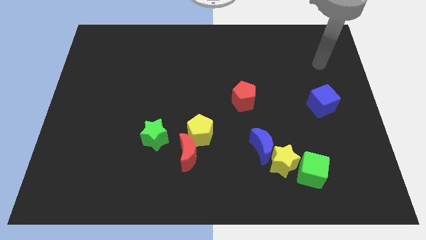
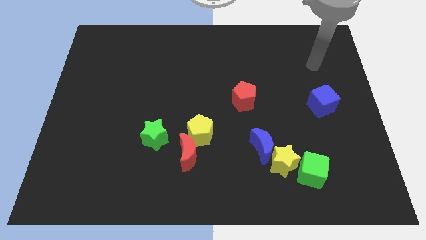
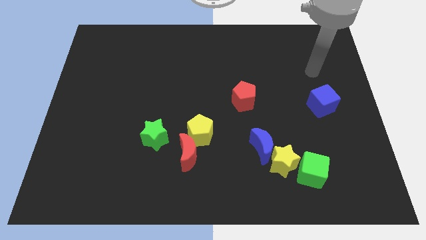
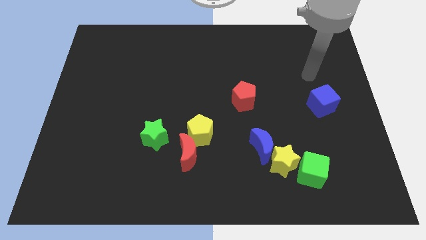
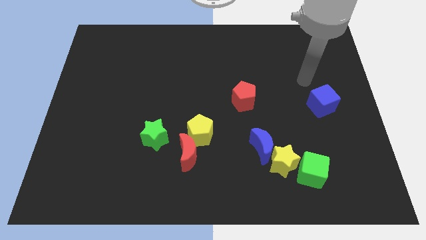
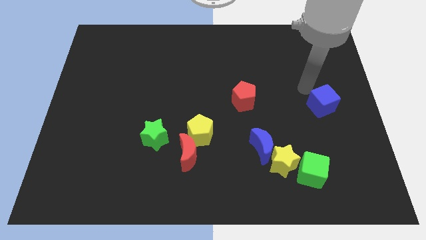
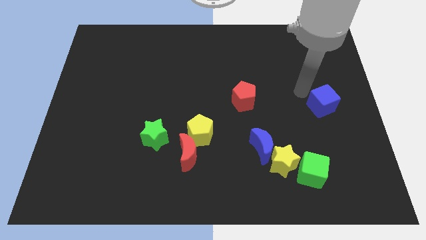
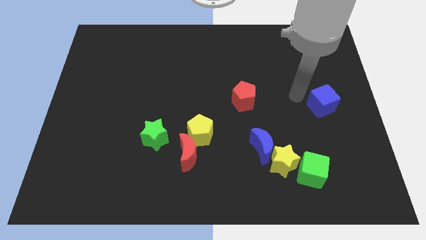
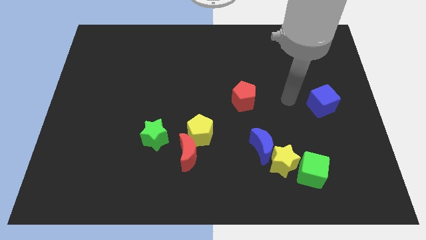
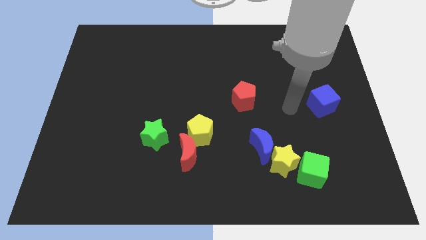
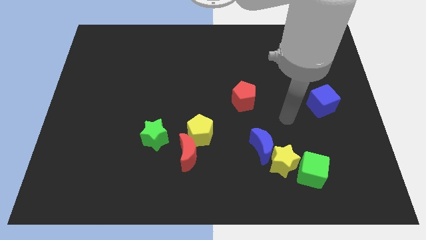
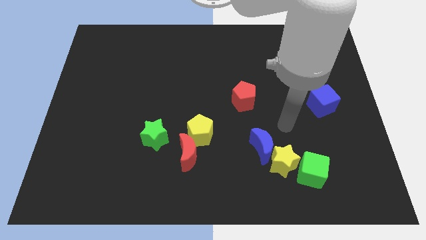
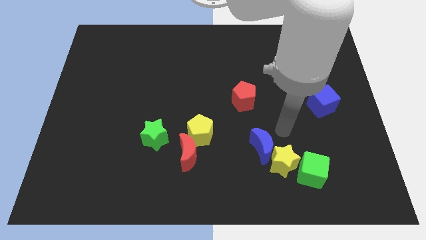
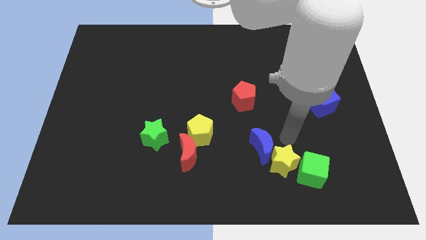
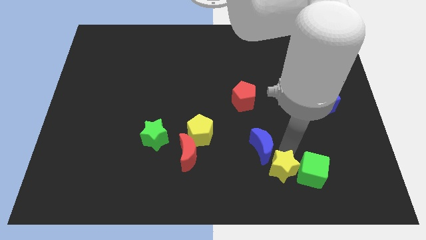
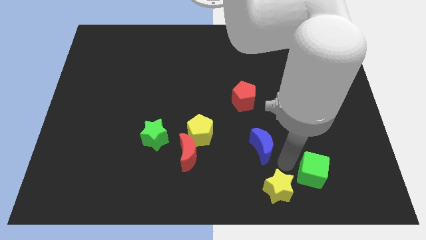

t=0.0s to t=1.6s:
pull the blue moon apart from the yellow star

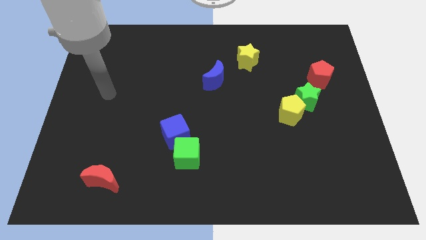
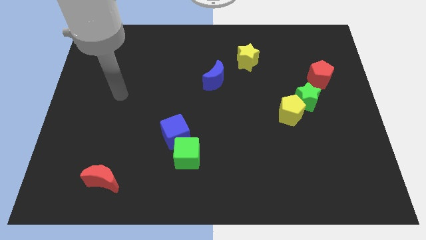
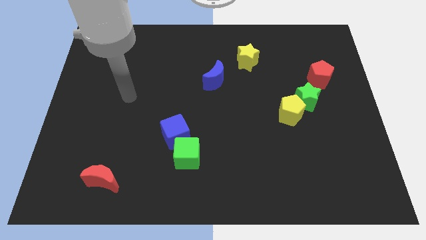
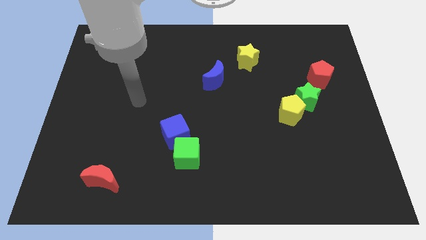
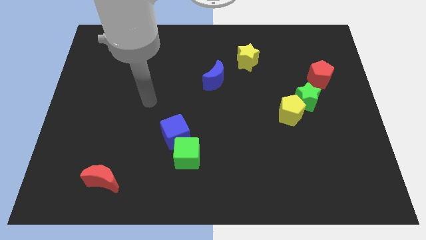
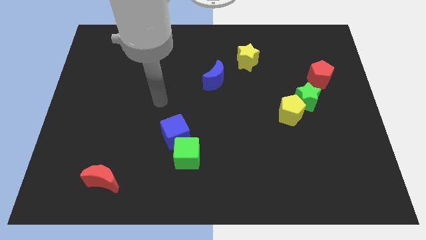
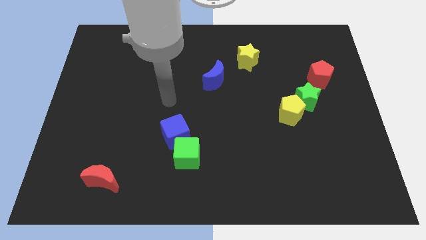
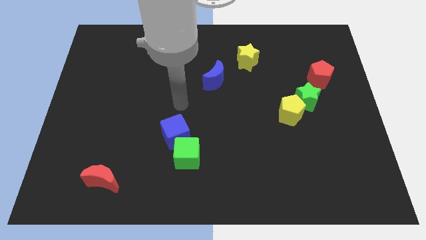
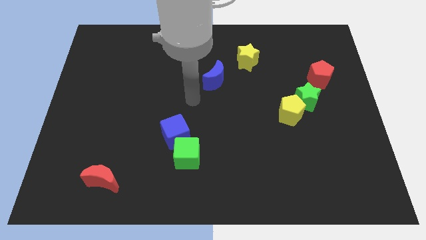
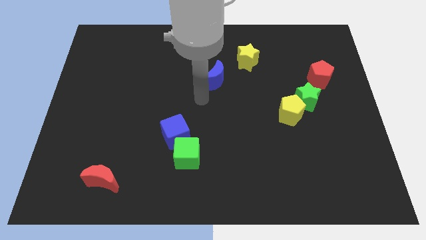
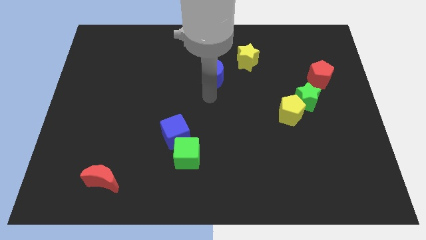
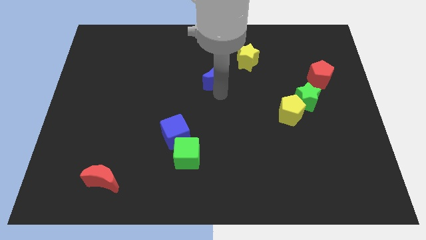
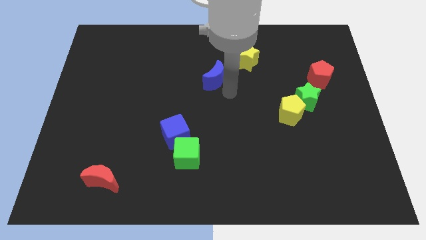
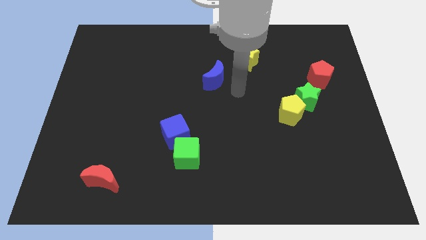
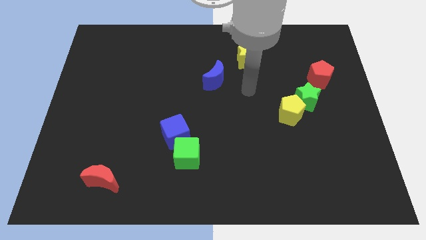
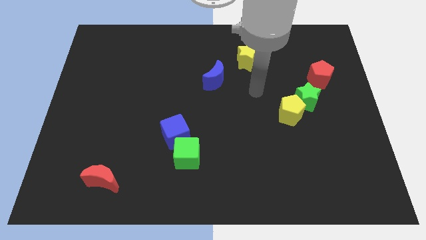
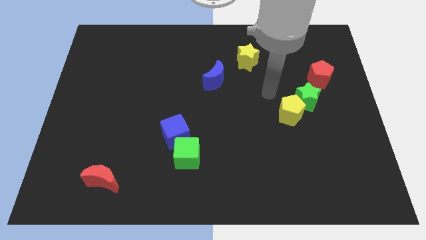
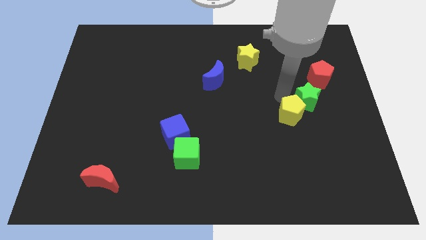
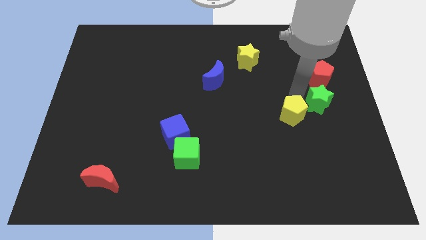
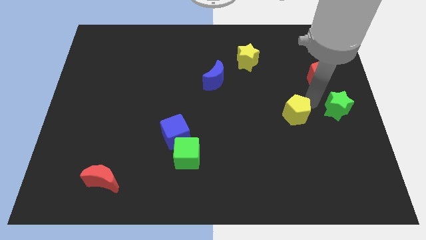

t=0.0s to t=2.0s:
separate the yellow pentagon from the green star

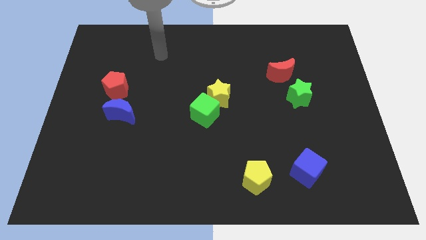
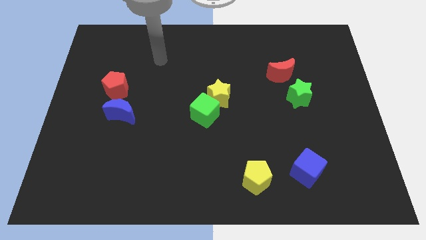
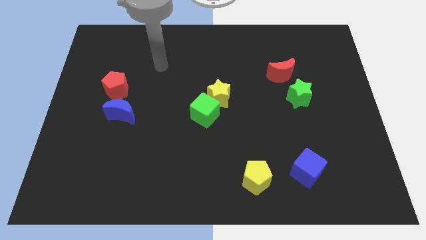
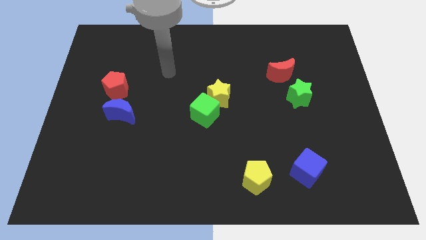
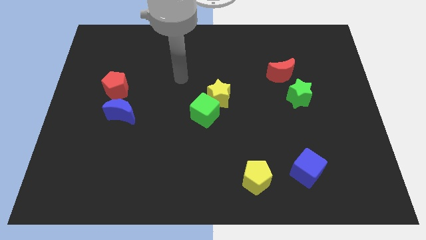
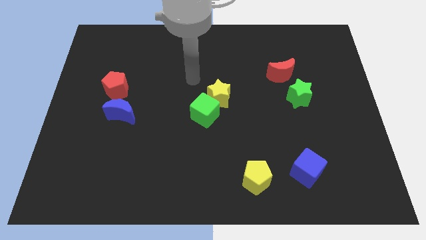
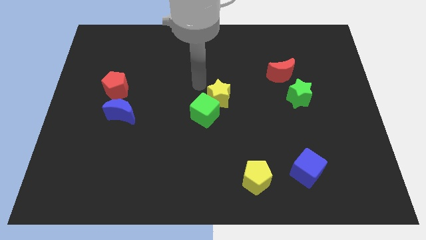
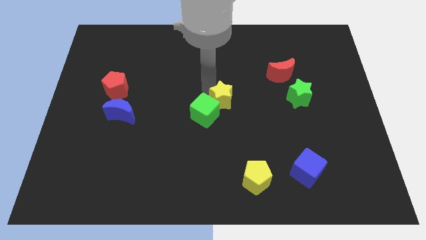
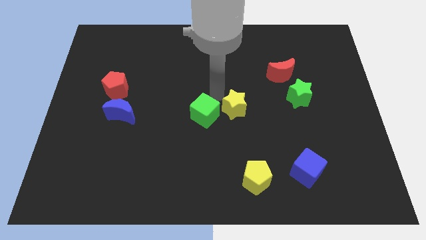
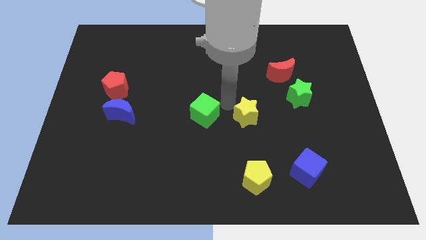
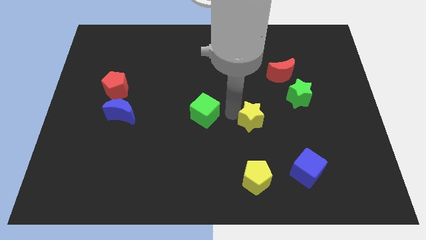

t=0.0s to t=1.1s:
pull the green cube apart from the yellow star

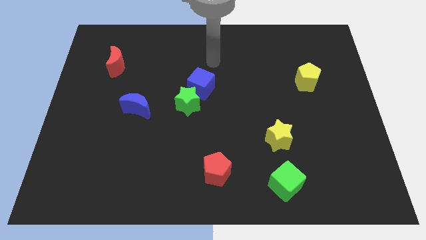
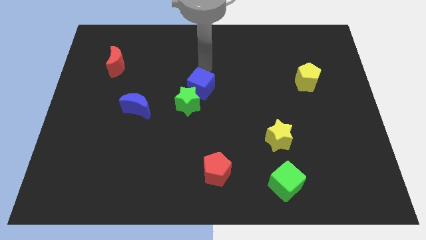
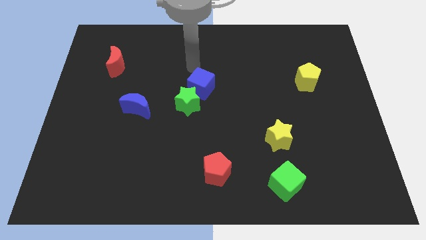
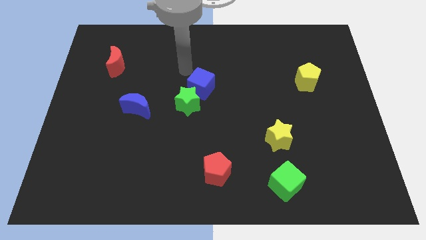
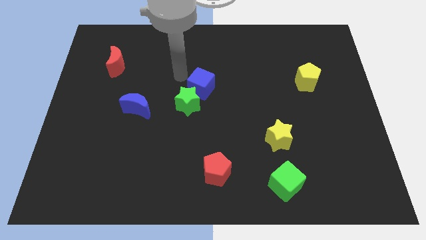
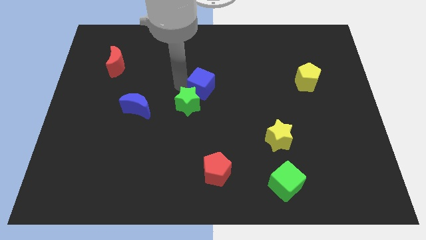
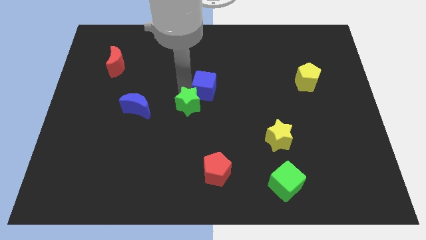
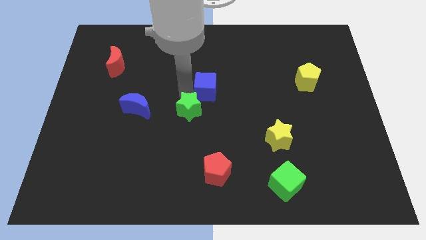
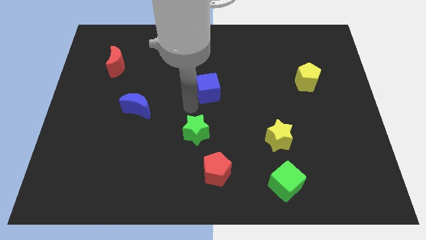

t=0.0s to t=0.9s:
move the blue cube away from the green star

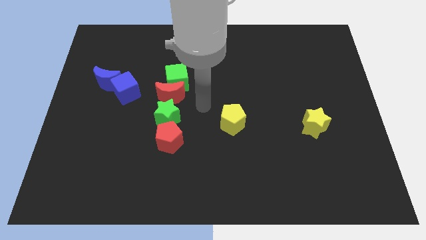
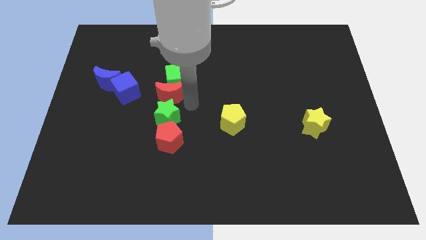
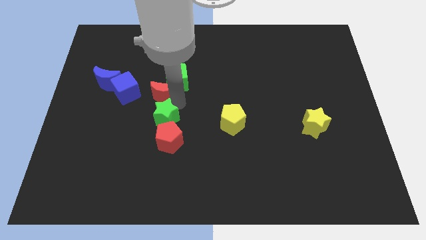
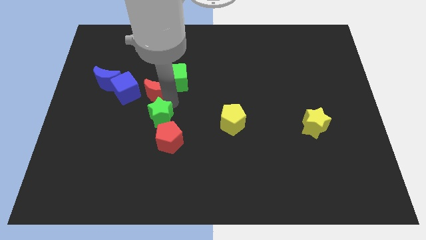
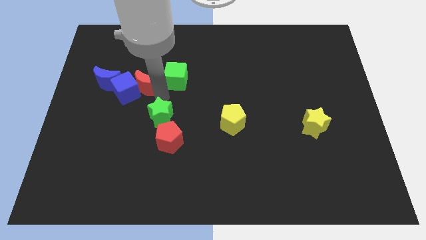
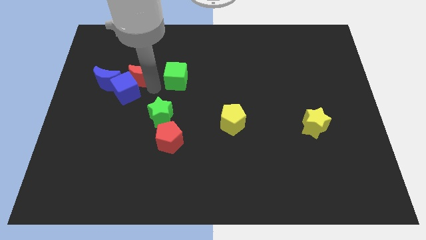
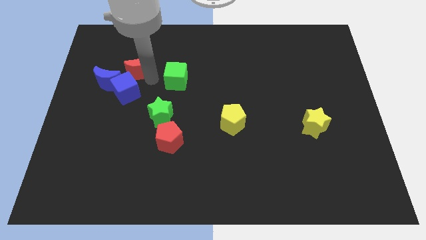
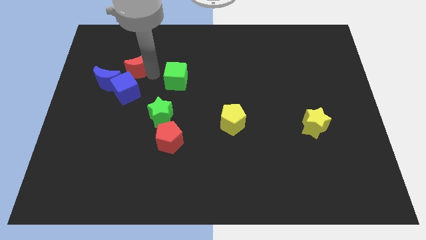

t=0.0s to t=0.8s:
move the green cube away from the red moon

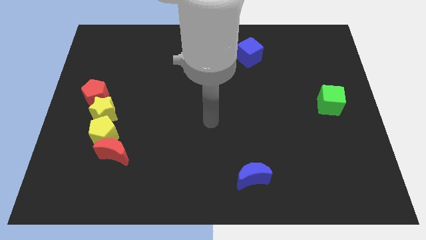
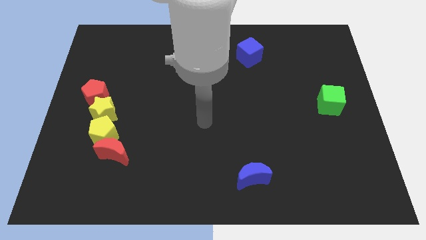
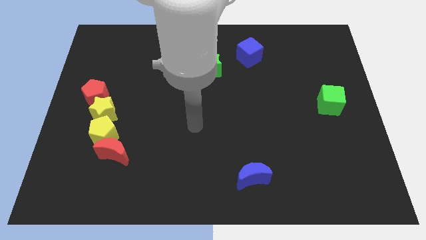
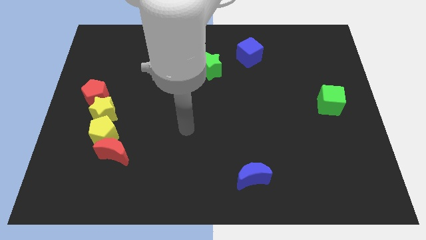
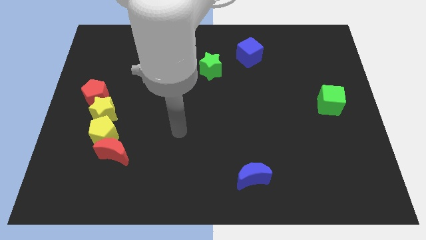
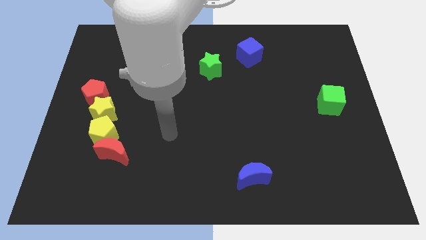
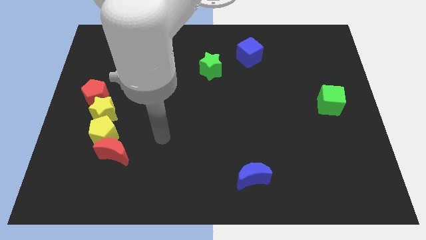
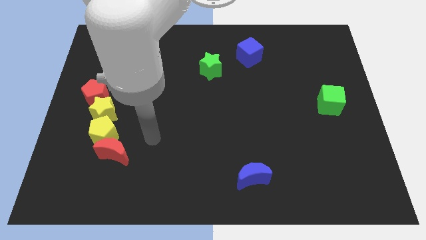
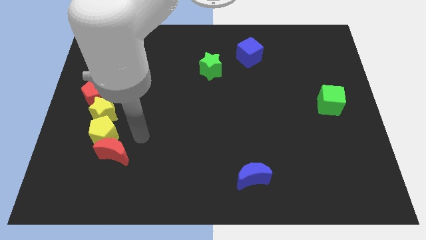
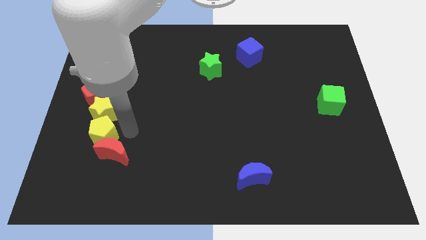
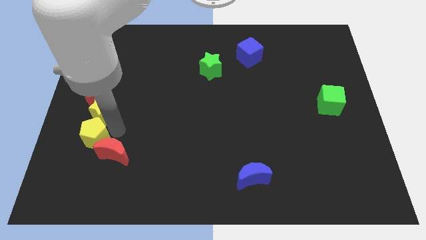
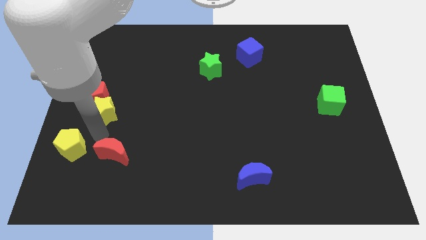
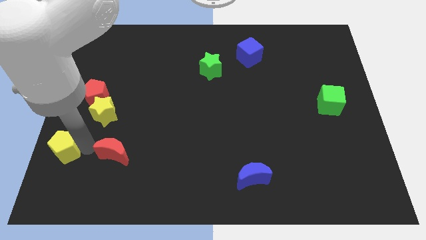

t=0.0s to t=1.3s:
separate the red moon from the yellow pentagon

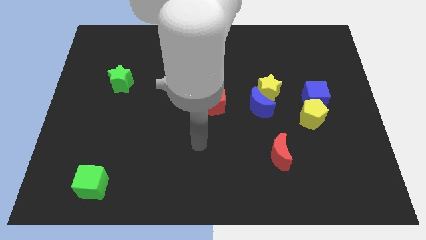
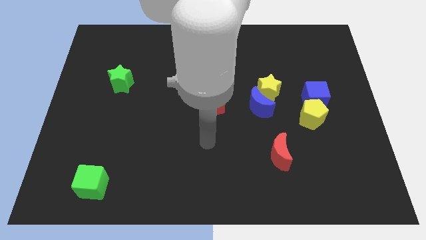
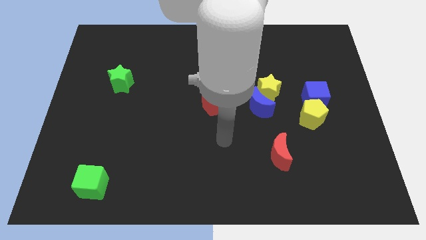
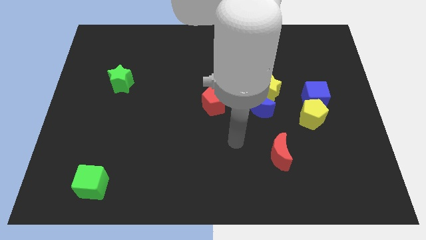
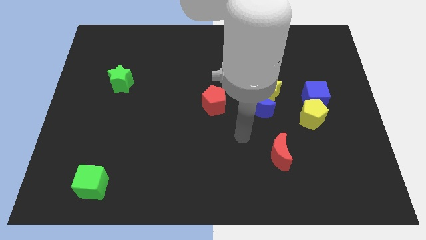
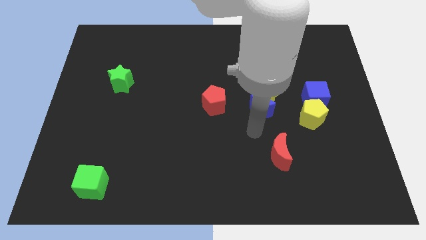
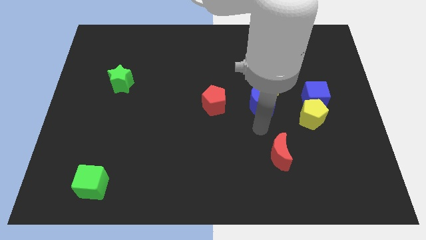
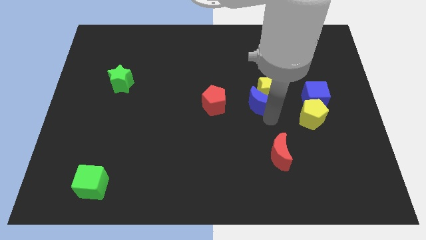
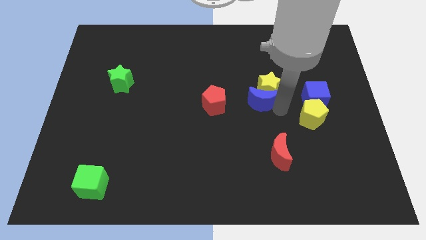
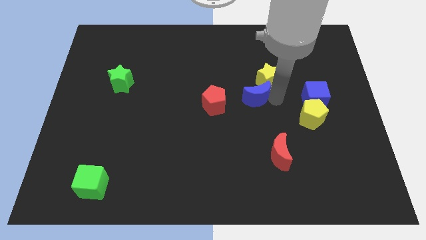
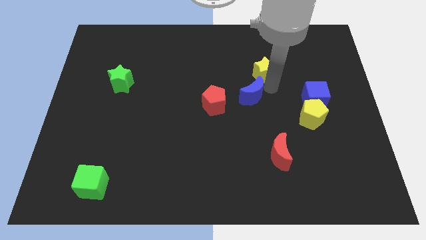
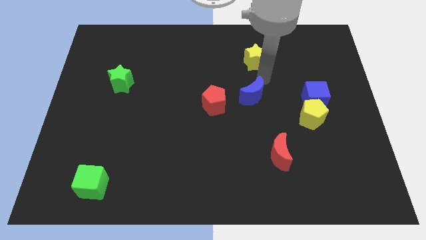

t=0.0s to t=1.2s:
separate the blue moon from the yellow star

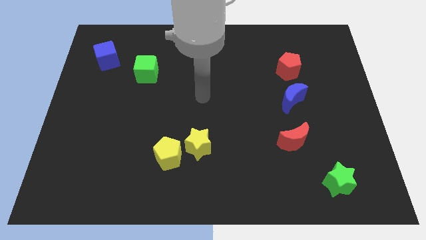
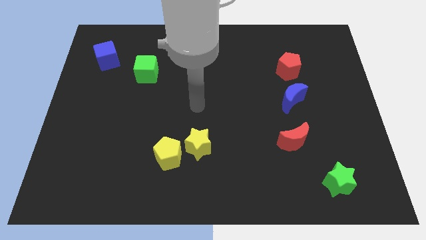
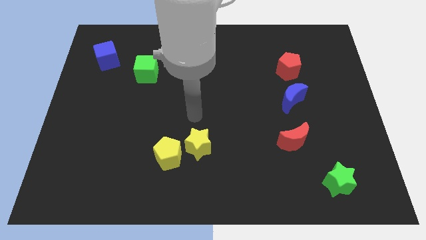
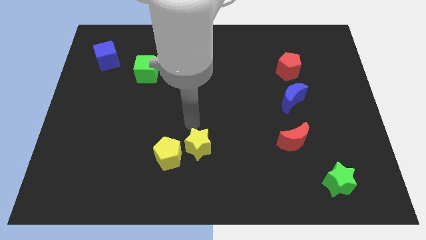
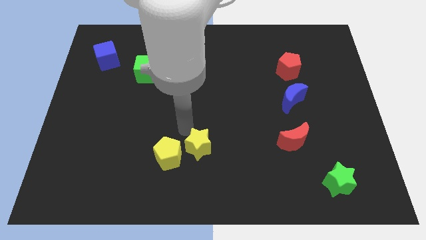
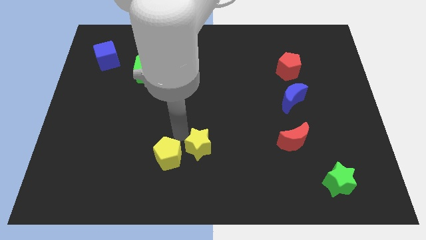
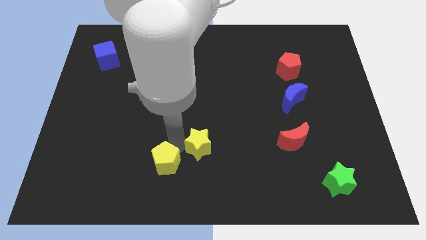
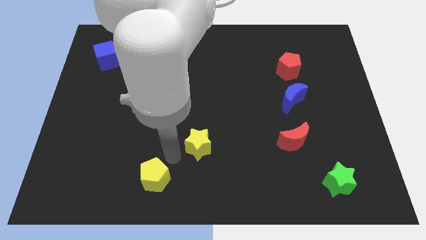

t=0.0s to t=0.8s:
separate the yellow star from the yellow pentagon
